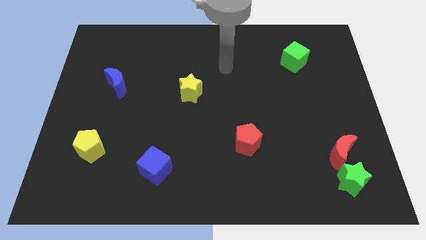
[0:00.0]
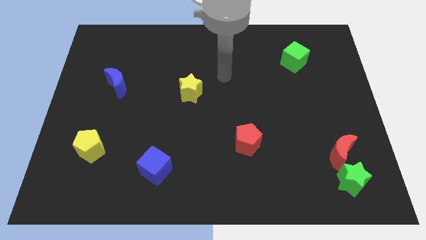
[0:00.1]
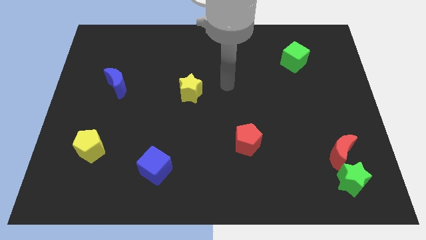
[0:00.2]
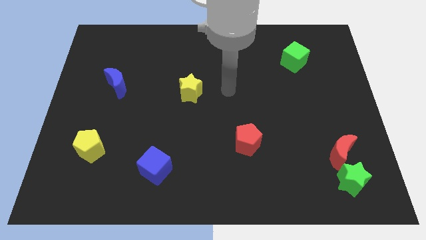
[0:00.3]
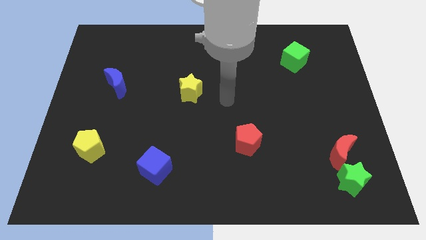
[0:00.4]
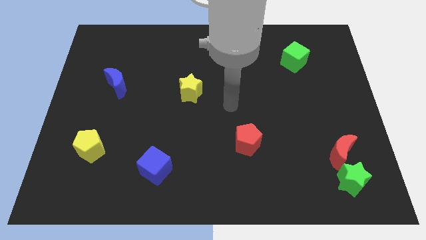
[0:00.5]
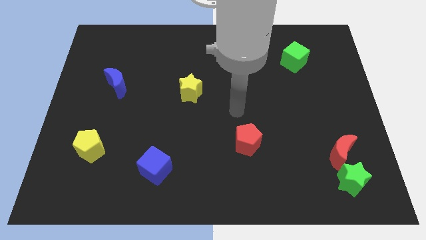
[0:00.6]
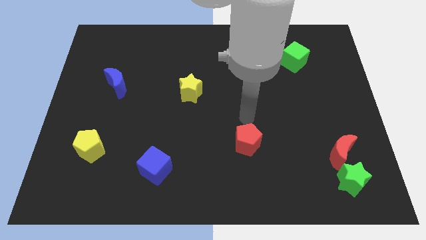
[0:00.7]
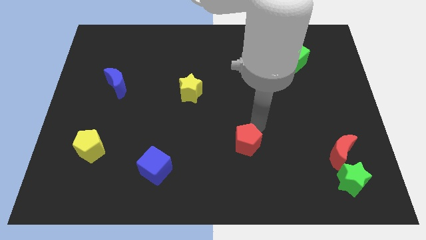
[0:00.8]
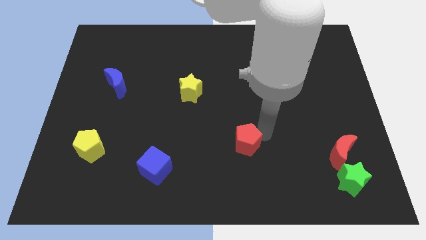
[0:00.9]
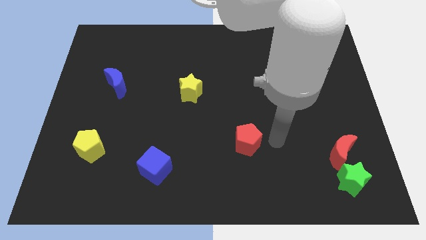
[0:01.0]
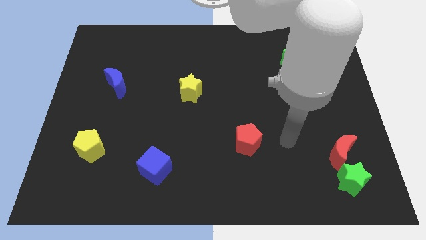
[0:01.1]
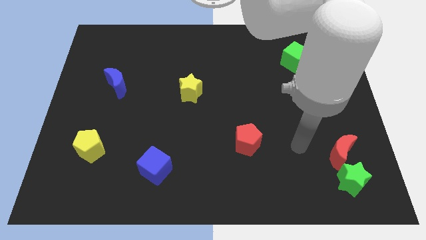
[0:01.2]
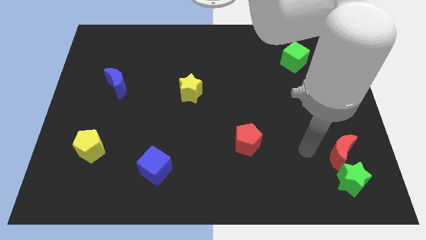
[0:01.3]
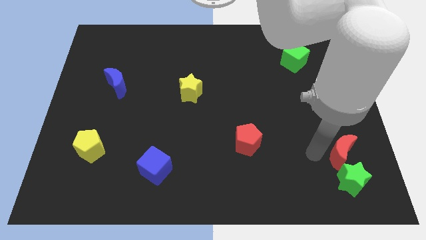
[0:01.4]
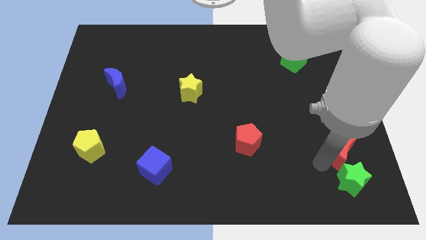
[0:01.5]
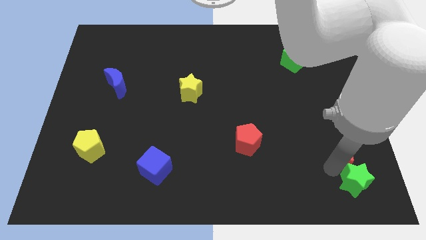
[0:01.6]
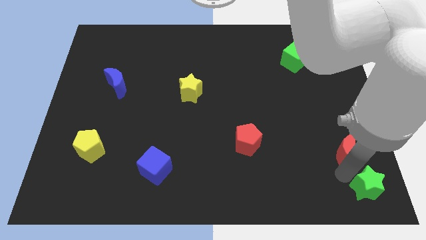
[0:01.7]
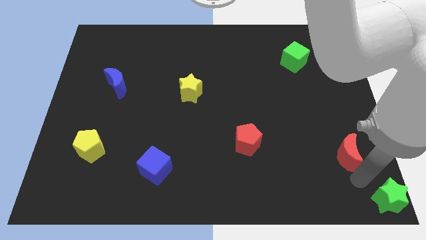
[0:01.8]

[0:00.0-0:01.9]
separate the red moon from the green star

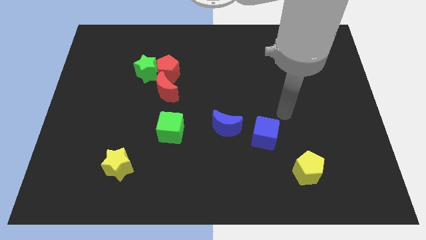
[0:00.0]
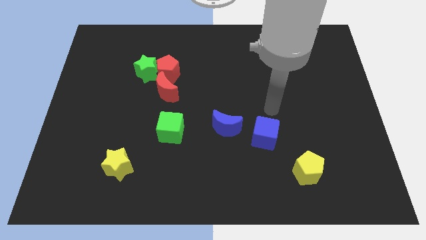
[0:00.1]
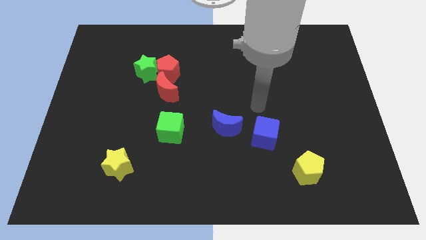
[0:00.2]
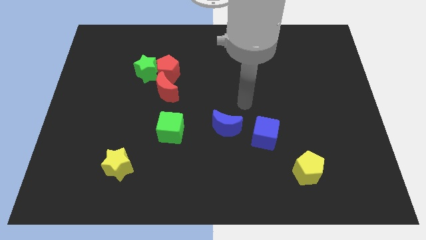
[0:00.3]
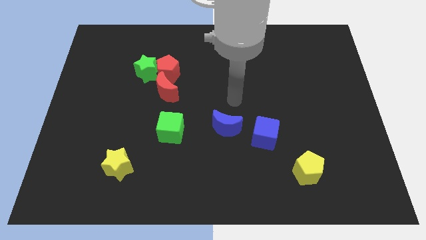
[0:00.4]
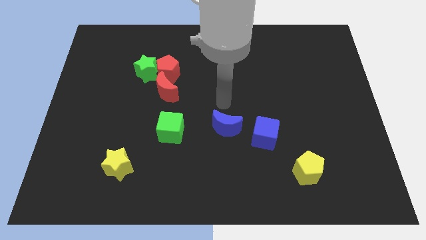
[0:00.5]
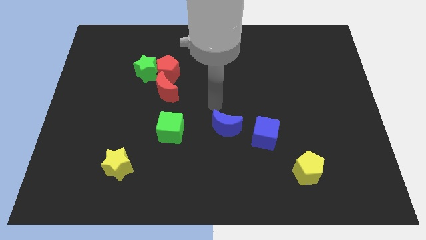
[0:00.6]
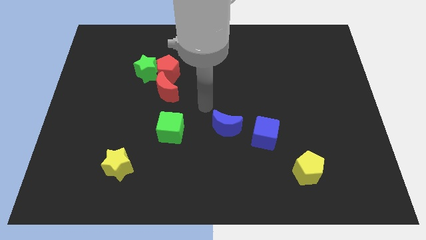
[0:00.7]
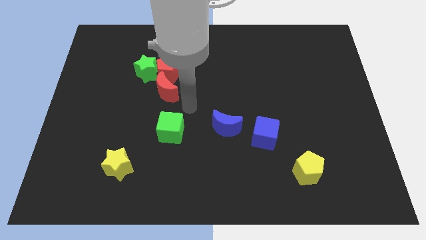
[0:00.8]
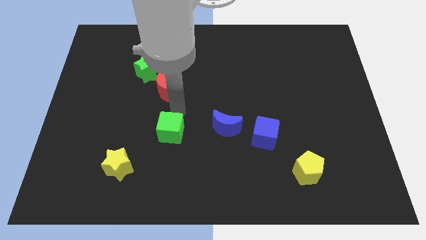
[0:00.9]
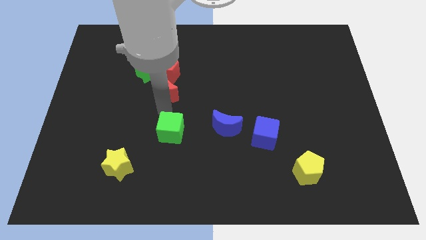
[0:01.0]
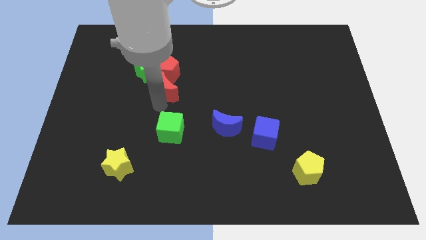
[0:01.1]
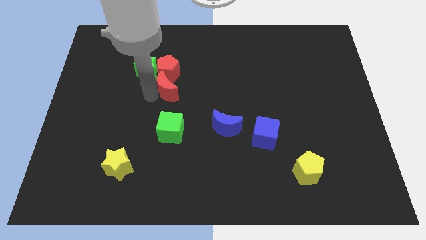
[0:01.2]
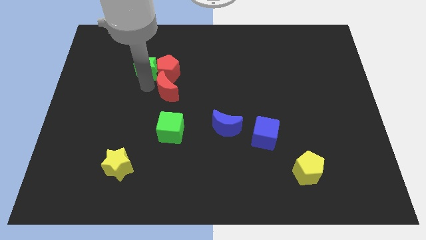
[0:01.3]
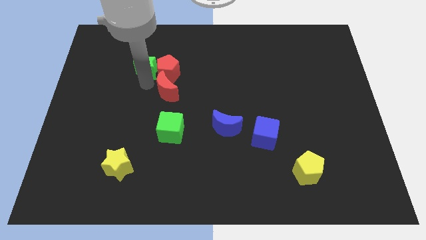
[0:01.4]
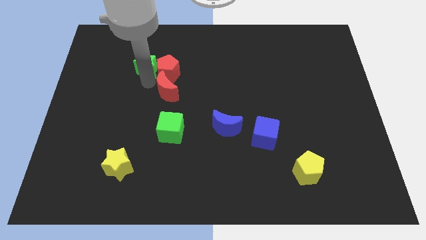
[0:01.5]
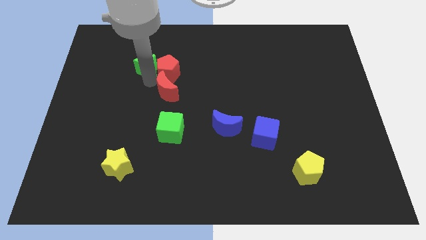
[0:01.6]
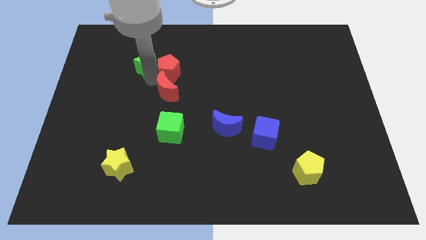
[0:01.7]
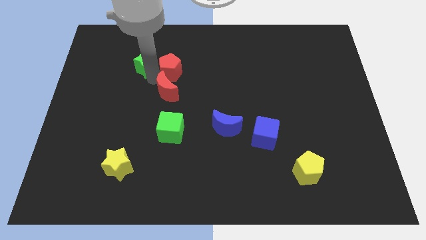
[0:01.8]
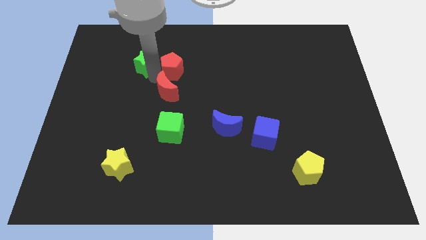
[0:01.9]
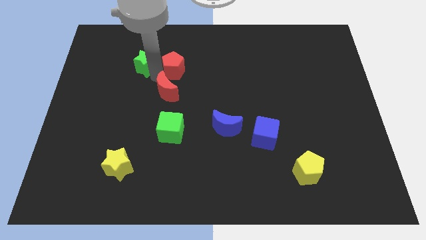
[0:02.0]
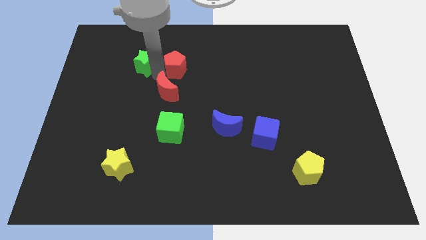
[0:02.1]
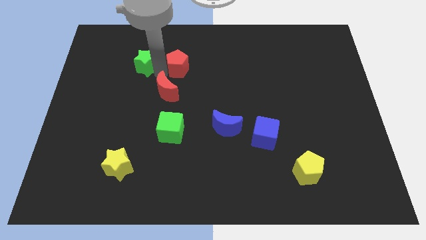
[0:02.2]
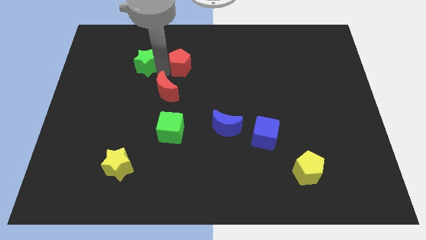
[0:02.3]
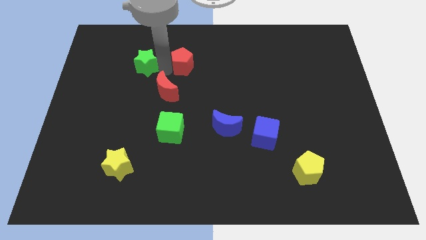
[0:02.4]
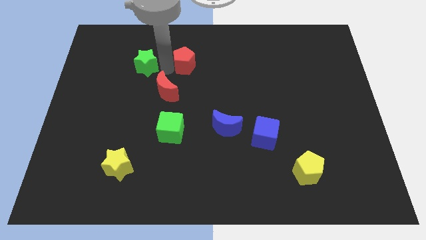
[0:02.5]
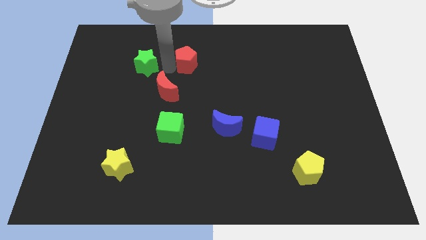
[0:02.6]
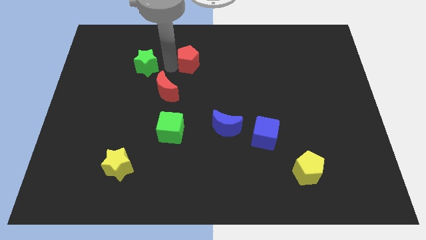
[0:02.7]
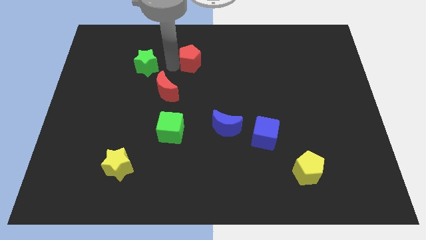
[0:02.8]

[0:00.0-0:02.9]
pull the red pentagon apart from the green star and red moon

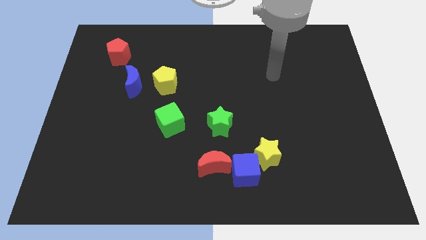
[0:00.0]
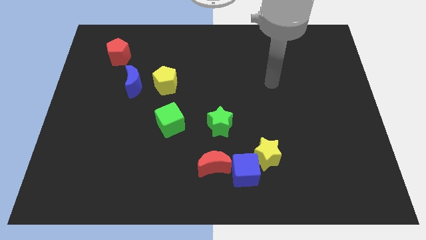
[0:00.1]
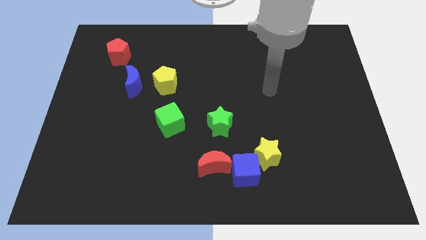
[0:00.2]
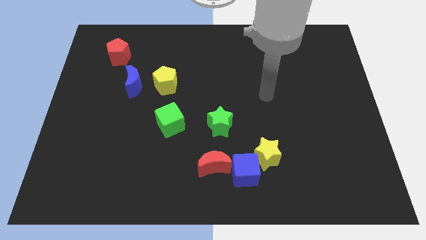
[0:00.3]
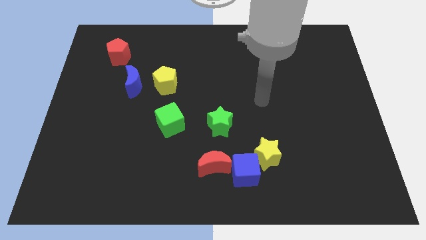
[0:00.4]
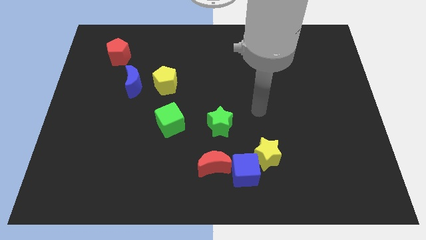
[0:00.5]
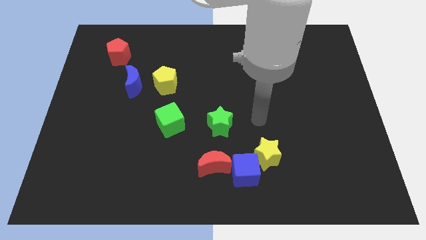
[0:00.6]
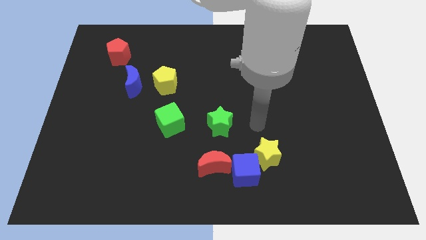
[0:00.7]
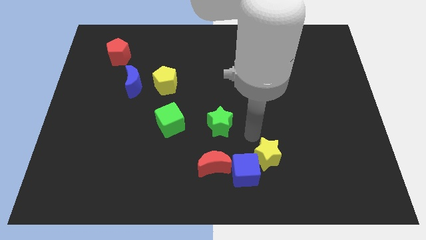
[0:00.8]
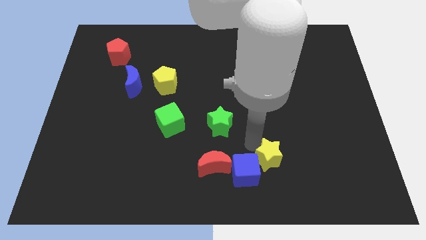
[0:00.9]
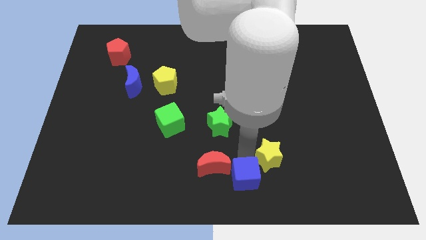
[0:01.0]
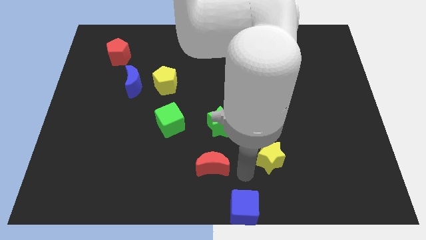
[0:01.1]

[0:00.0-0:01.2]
separate the yellow star from the blue cube

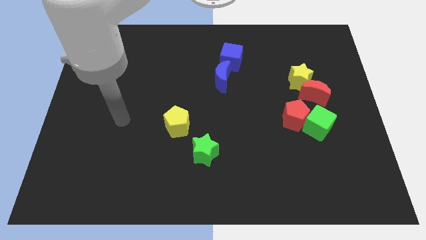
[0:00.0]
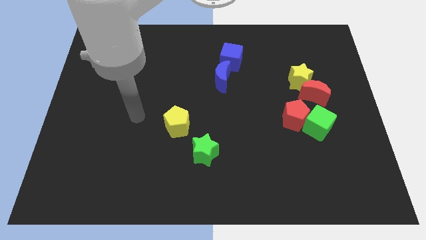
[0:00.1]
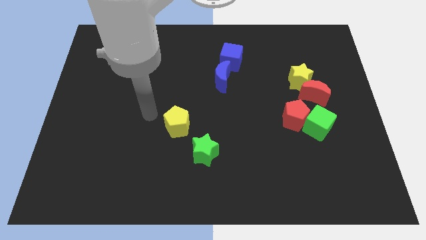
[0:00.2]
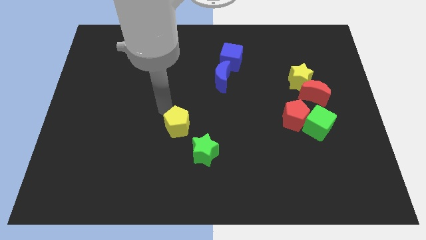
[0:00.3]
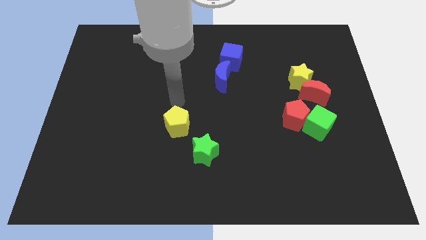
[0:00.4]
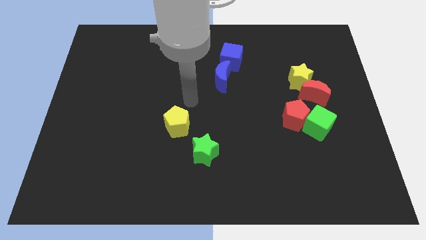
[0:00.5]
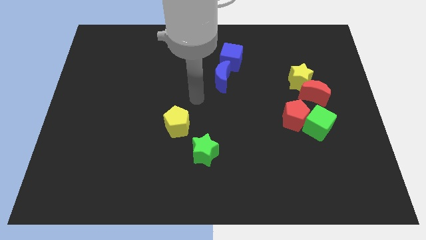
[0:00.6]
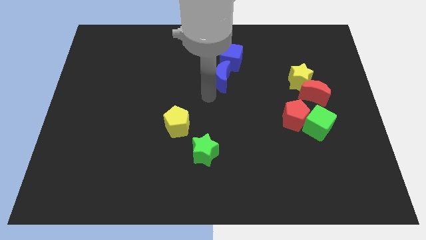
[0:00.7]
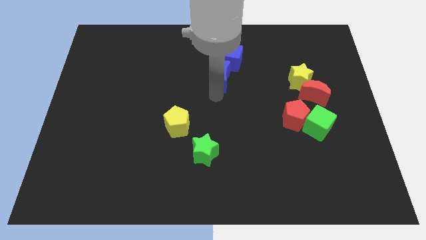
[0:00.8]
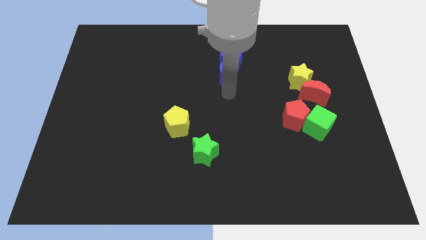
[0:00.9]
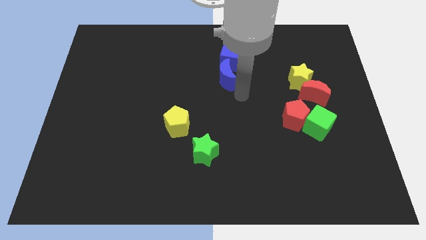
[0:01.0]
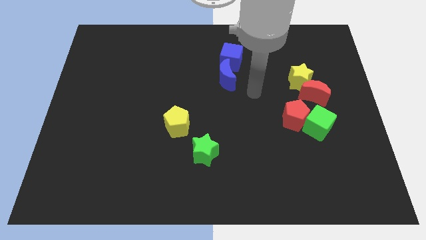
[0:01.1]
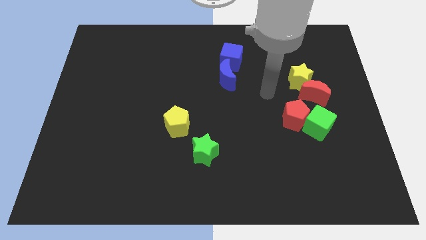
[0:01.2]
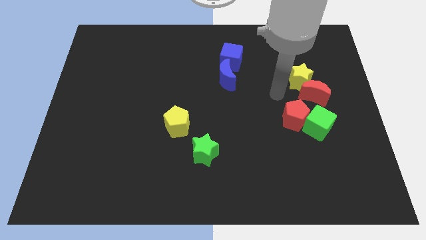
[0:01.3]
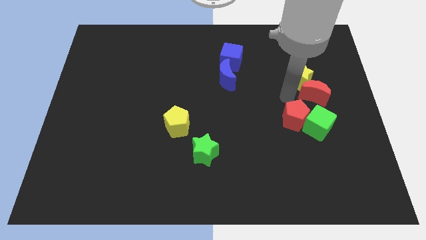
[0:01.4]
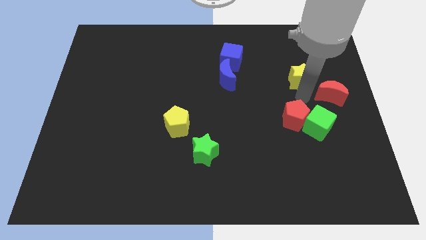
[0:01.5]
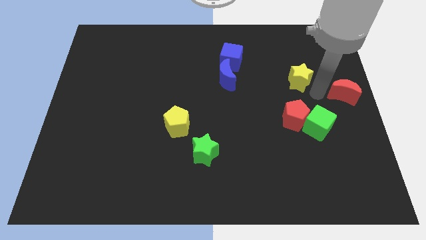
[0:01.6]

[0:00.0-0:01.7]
move the yellow star away from the red moon

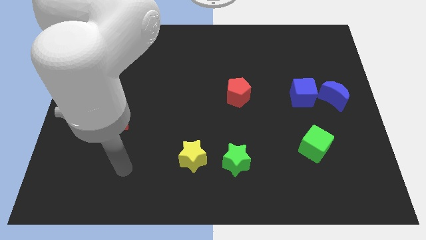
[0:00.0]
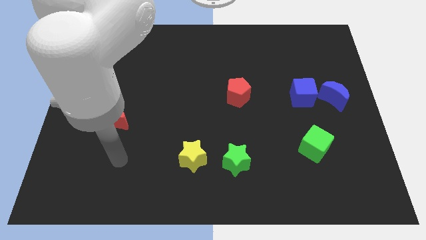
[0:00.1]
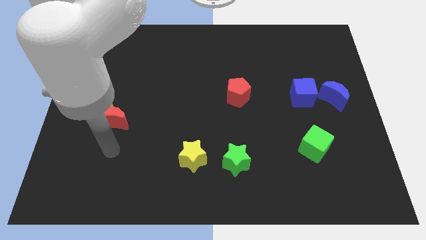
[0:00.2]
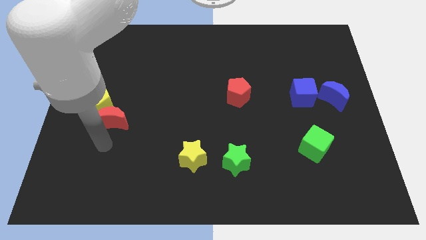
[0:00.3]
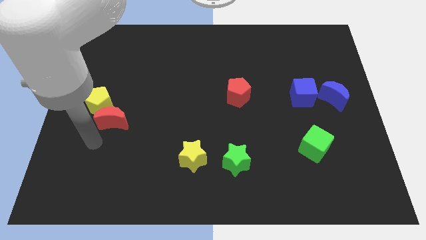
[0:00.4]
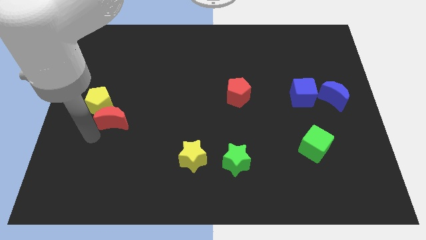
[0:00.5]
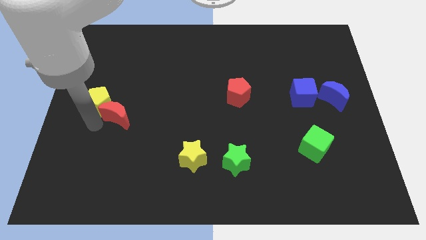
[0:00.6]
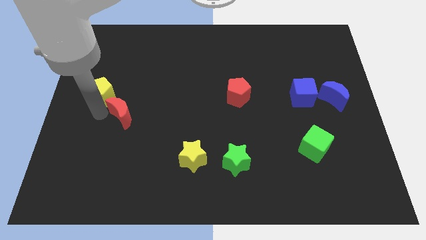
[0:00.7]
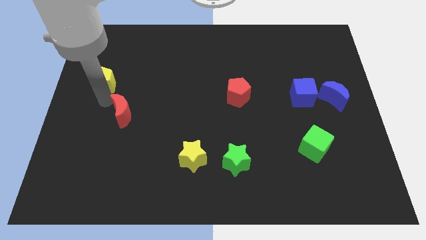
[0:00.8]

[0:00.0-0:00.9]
move the red moon away from the yellow pentagon

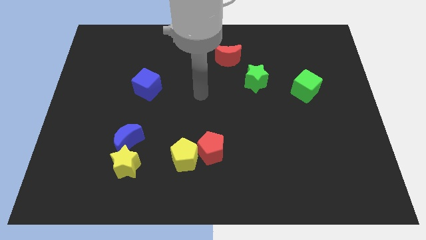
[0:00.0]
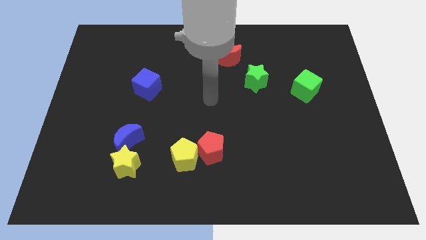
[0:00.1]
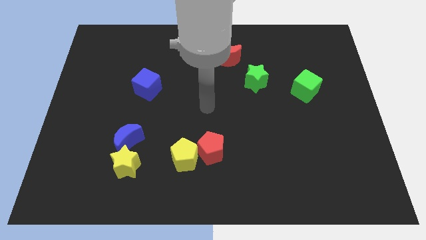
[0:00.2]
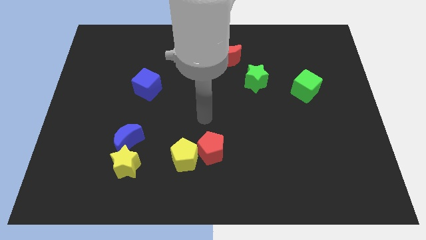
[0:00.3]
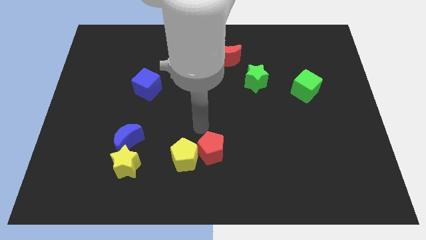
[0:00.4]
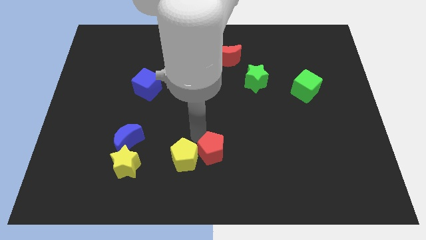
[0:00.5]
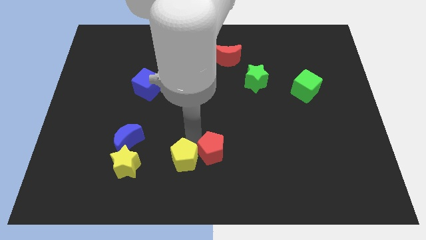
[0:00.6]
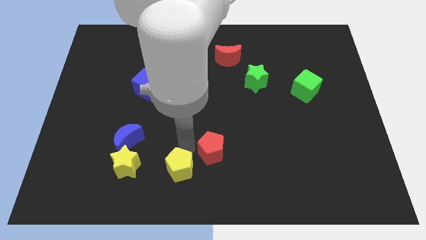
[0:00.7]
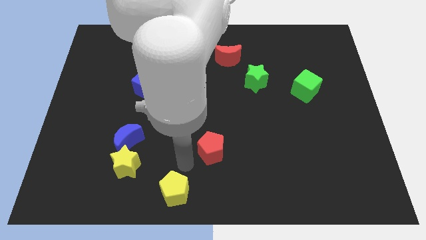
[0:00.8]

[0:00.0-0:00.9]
move the red pentagon away from the yellow pentagon
